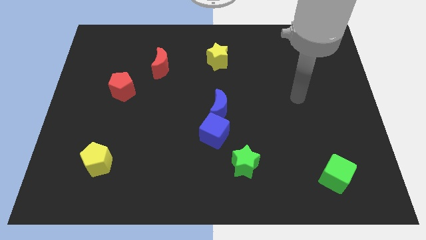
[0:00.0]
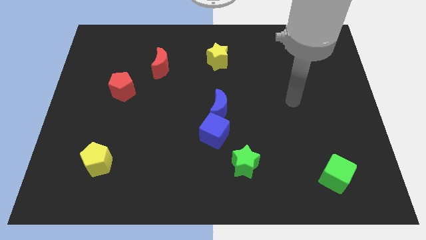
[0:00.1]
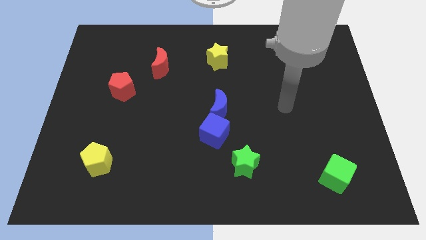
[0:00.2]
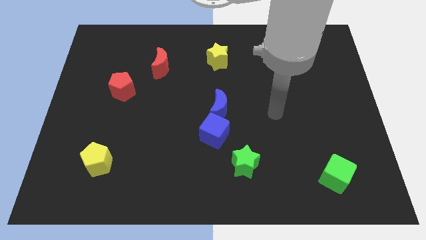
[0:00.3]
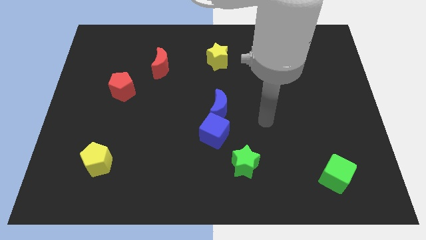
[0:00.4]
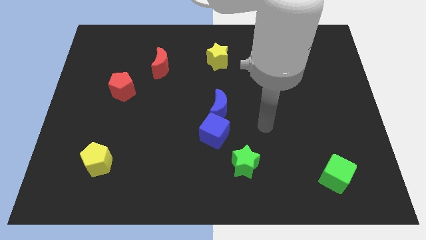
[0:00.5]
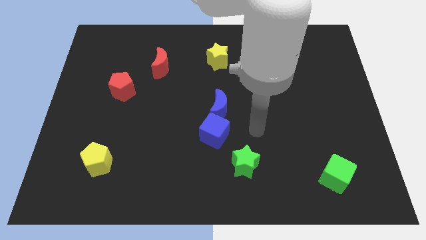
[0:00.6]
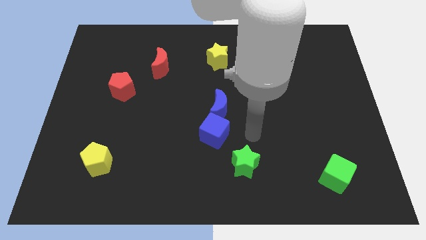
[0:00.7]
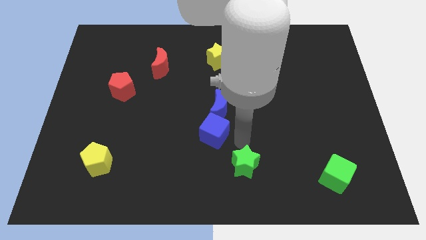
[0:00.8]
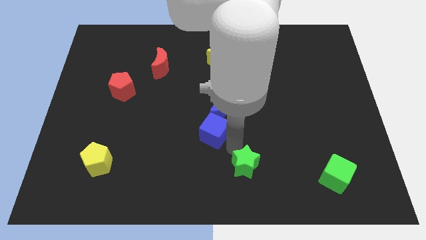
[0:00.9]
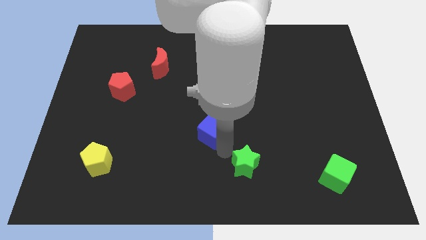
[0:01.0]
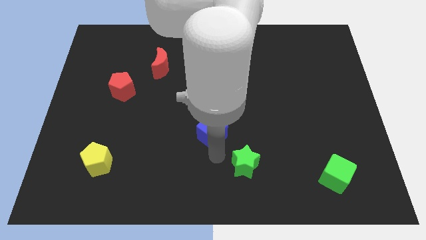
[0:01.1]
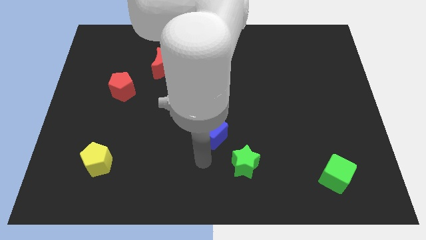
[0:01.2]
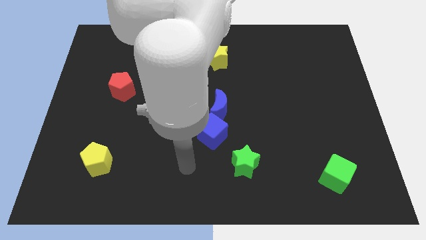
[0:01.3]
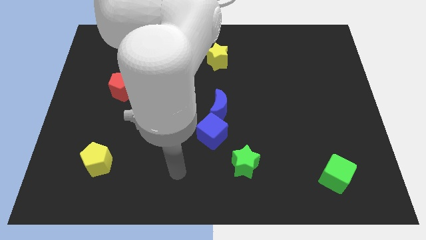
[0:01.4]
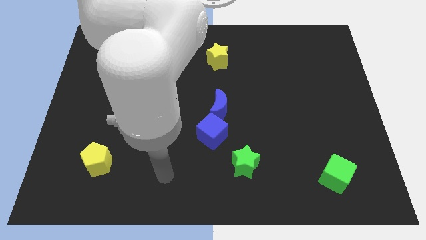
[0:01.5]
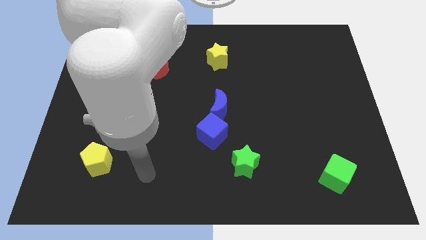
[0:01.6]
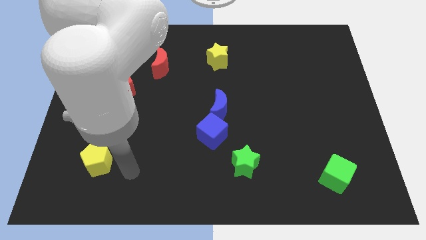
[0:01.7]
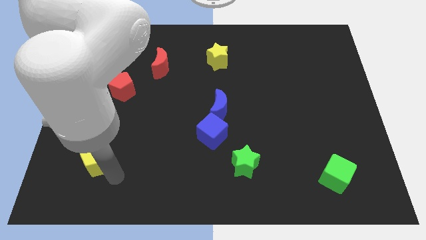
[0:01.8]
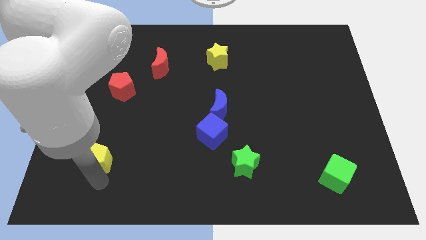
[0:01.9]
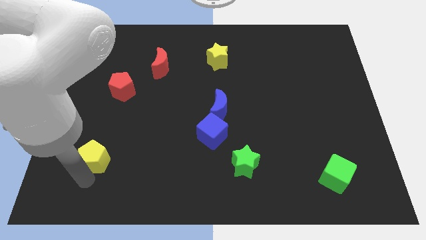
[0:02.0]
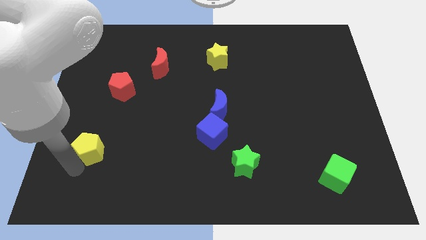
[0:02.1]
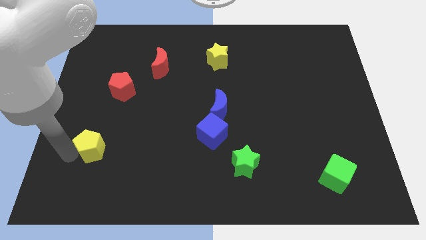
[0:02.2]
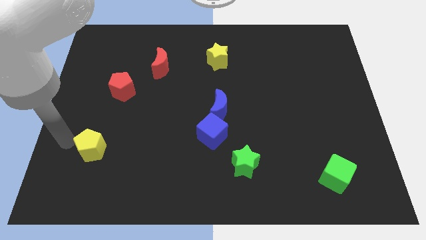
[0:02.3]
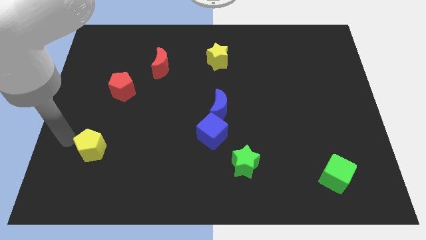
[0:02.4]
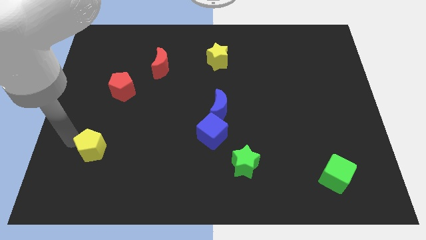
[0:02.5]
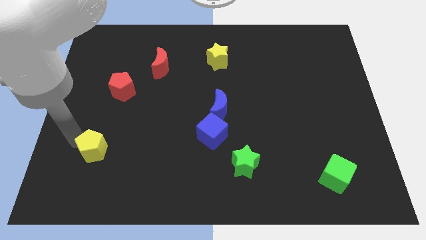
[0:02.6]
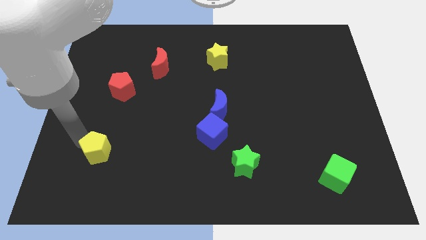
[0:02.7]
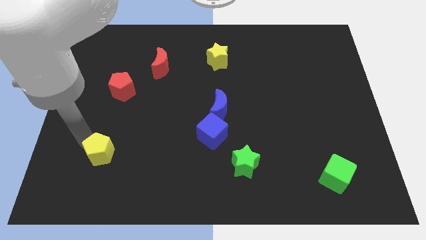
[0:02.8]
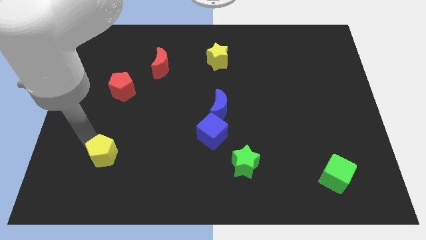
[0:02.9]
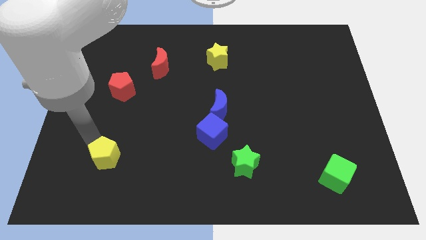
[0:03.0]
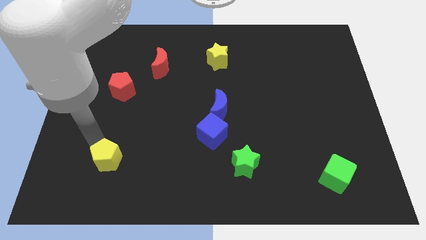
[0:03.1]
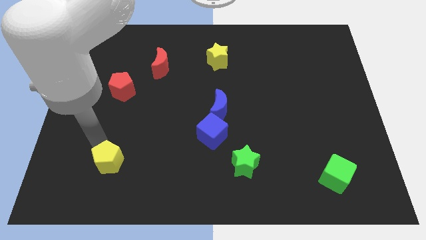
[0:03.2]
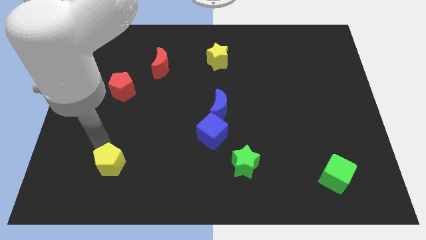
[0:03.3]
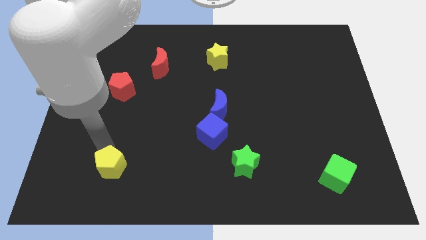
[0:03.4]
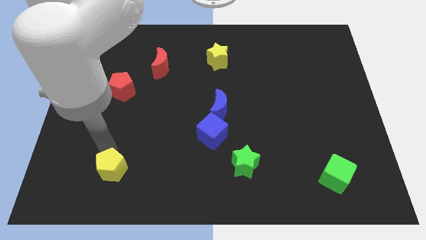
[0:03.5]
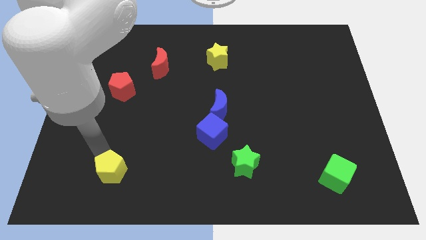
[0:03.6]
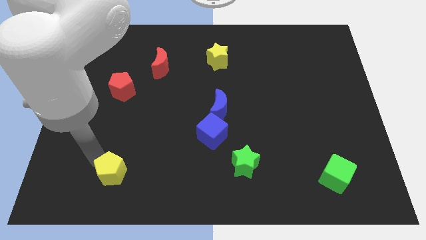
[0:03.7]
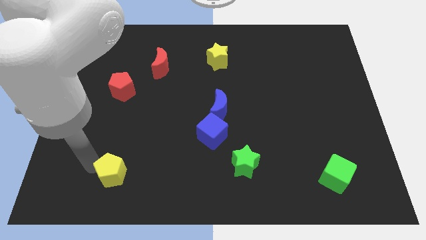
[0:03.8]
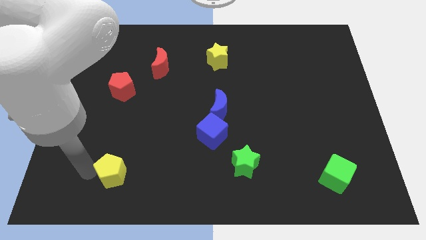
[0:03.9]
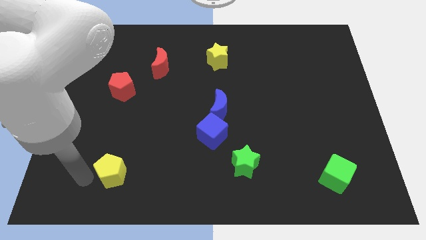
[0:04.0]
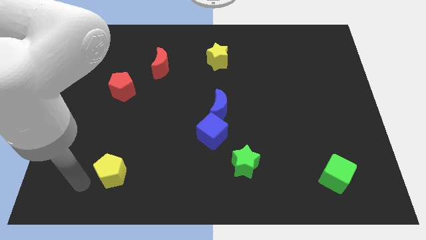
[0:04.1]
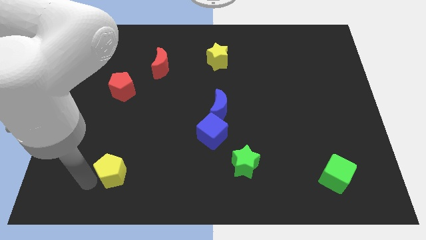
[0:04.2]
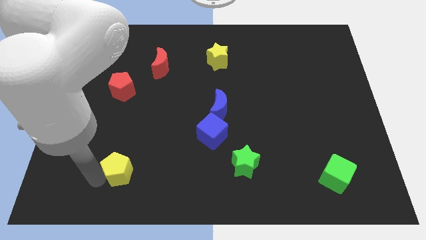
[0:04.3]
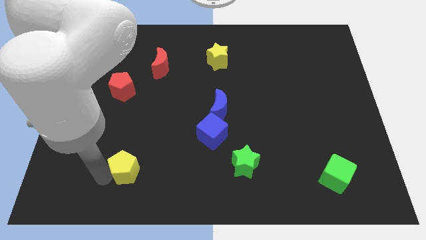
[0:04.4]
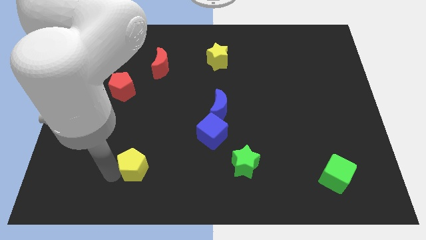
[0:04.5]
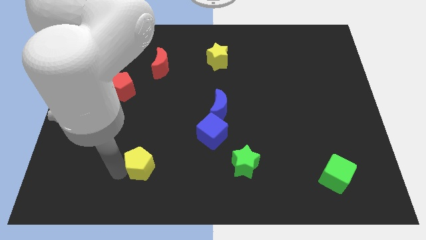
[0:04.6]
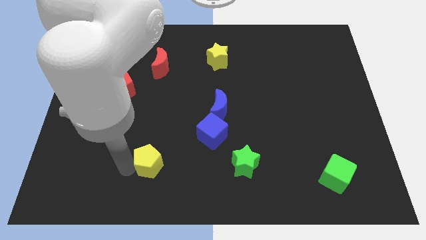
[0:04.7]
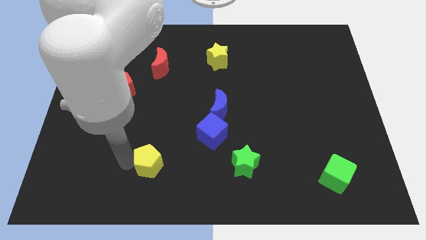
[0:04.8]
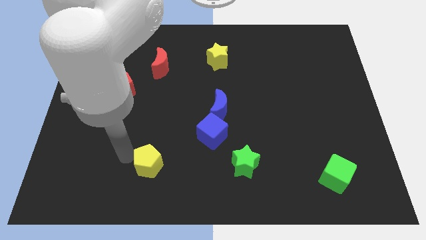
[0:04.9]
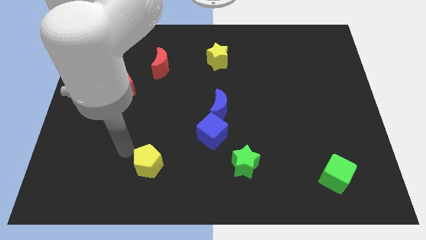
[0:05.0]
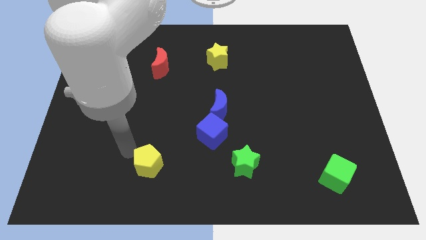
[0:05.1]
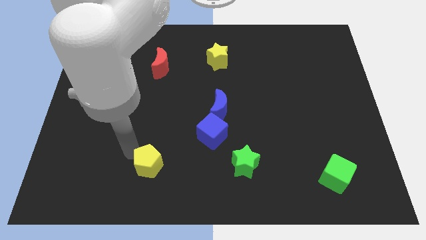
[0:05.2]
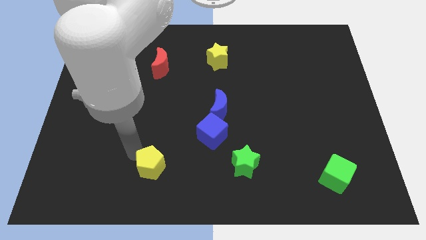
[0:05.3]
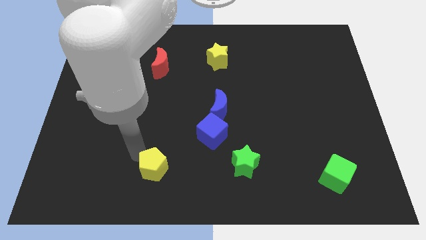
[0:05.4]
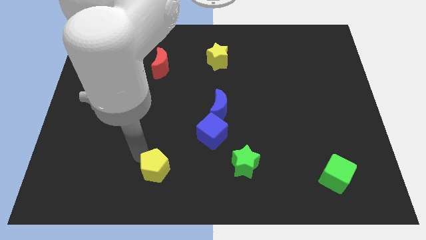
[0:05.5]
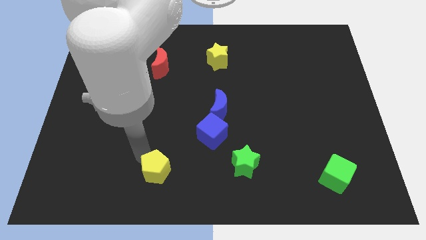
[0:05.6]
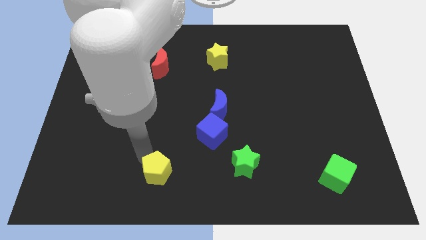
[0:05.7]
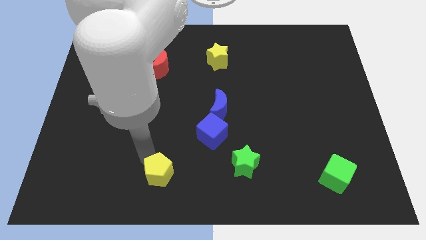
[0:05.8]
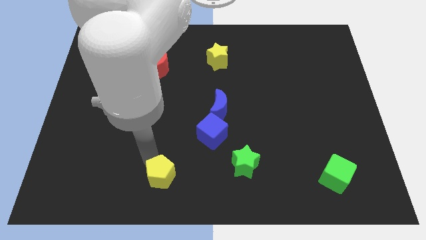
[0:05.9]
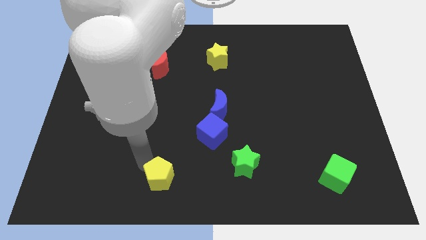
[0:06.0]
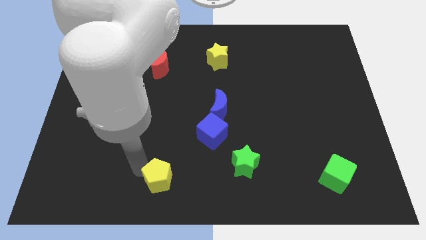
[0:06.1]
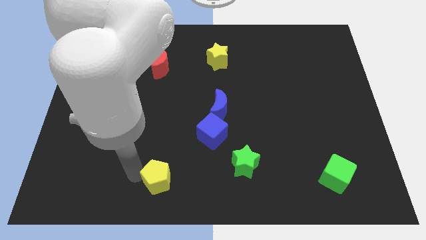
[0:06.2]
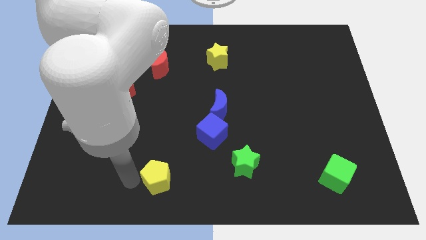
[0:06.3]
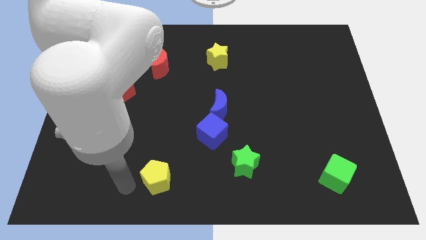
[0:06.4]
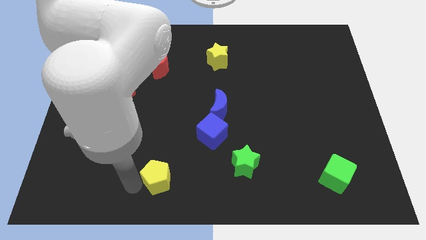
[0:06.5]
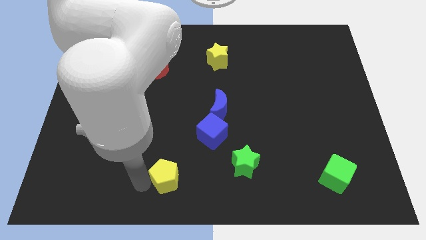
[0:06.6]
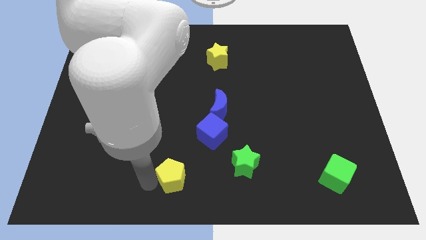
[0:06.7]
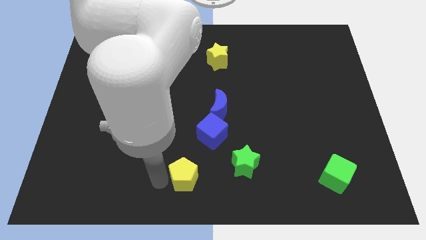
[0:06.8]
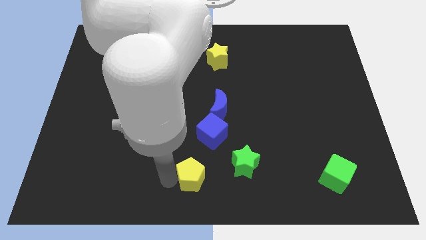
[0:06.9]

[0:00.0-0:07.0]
move the yellow pentagon to the bottom of the blue cube
